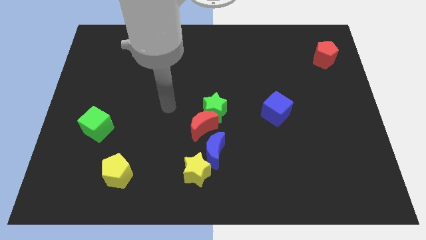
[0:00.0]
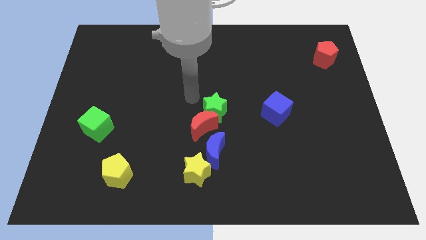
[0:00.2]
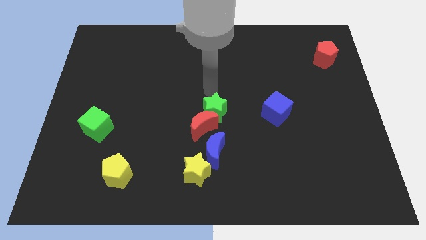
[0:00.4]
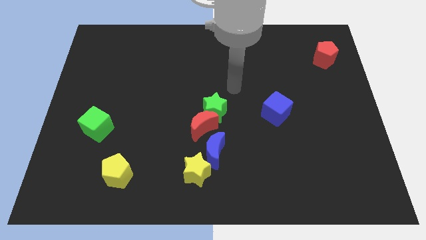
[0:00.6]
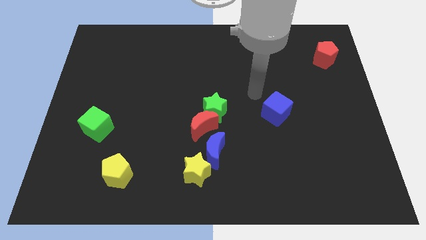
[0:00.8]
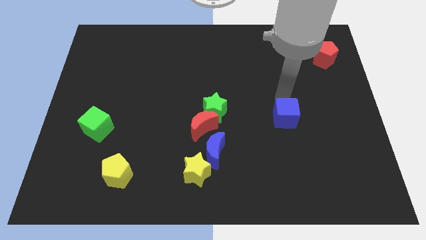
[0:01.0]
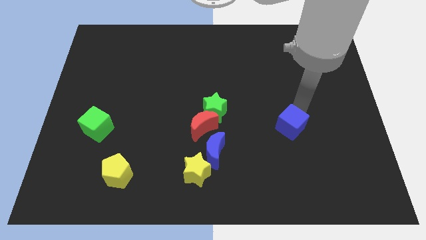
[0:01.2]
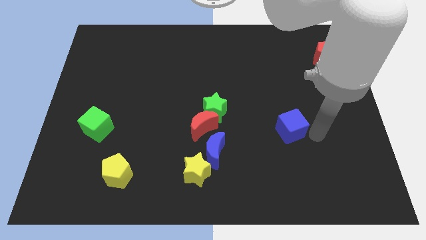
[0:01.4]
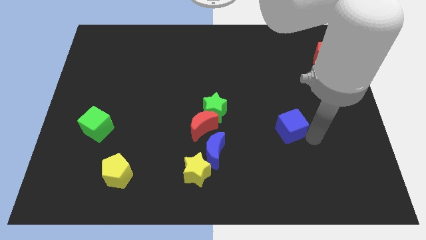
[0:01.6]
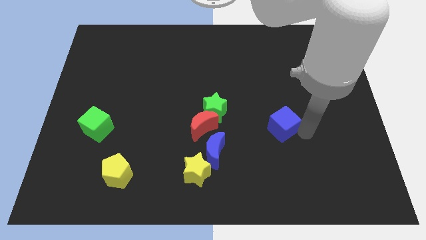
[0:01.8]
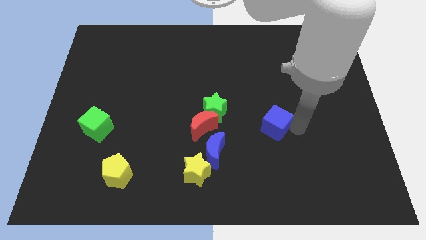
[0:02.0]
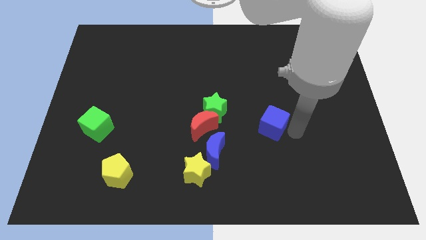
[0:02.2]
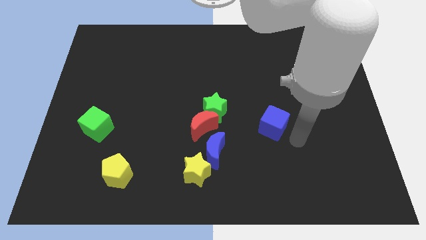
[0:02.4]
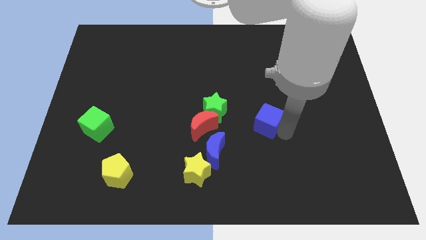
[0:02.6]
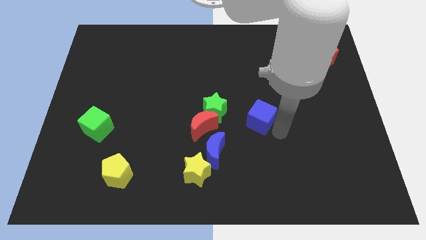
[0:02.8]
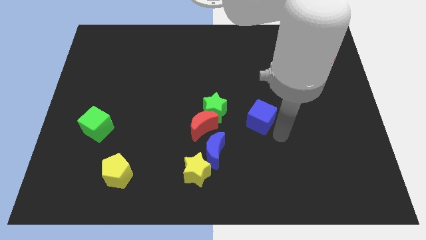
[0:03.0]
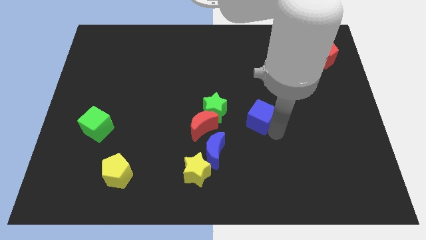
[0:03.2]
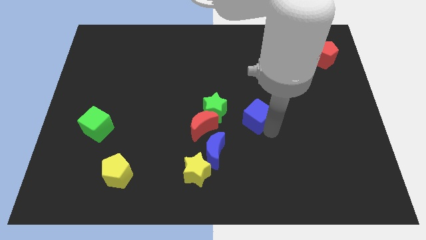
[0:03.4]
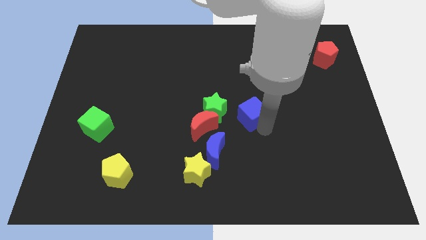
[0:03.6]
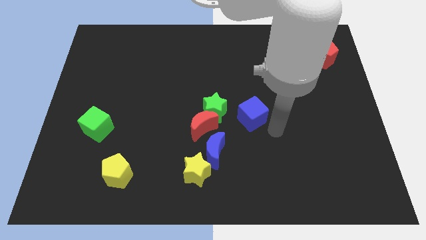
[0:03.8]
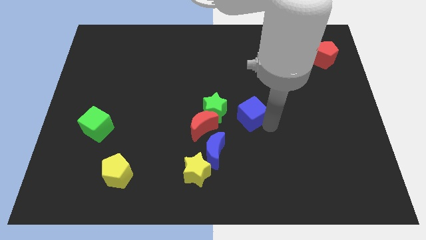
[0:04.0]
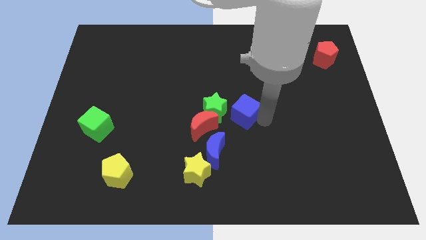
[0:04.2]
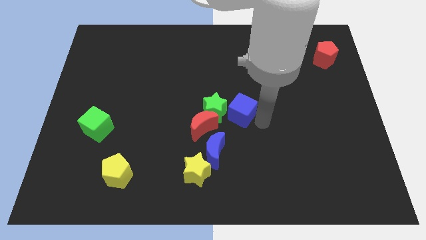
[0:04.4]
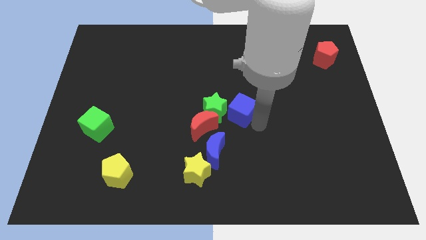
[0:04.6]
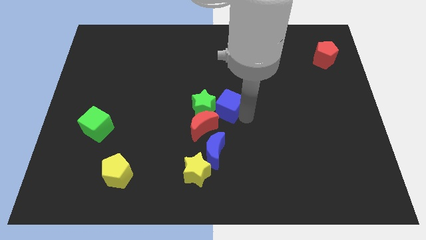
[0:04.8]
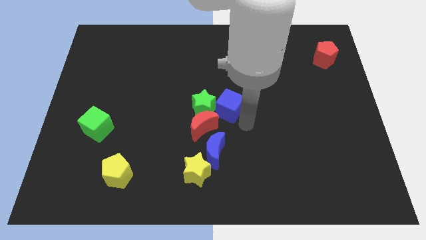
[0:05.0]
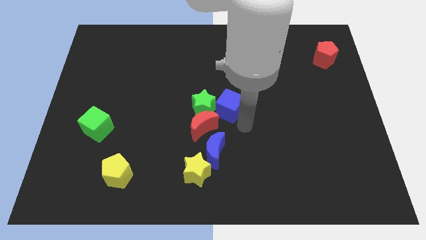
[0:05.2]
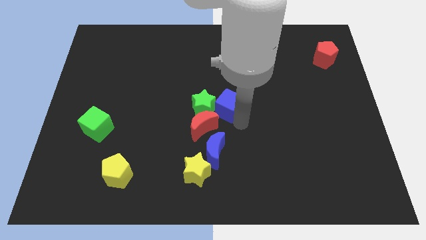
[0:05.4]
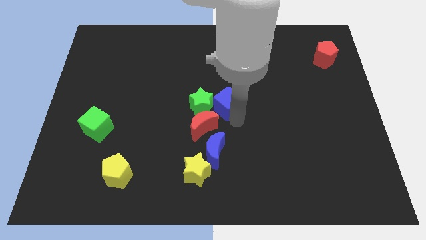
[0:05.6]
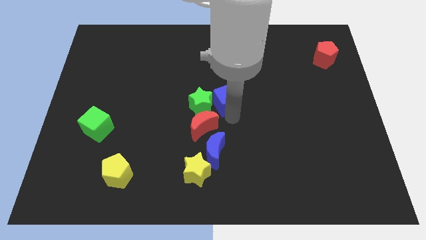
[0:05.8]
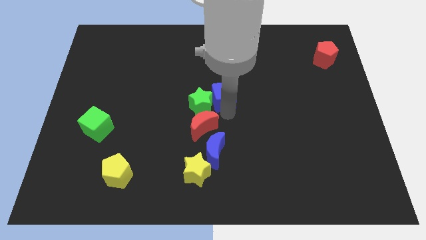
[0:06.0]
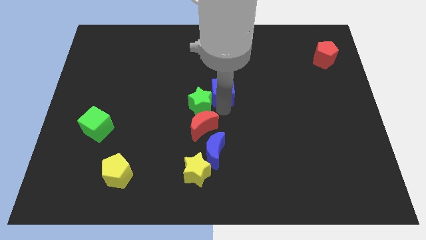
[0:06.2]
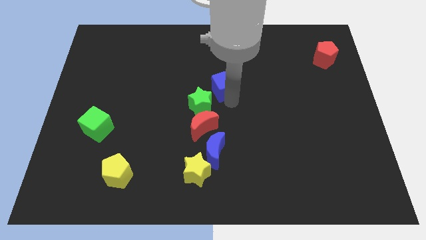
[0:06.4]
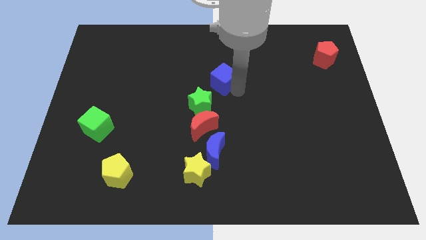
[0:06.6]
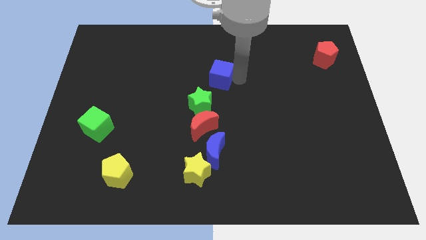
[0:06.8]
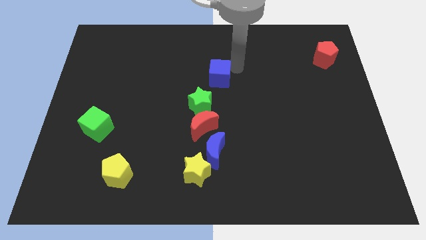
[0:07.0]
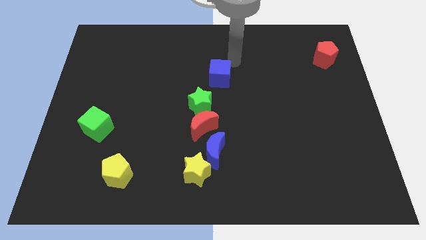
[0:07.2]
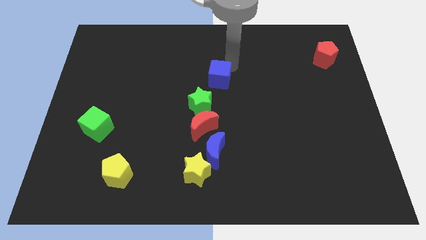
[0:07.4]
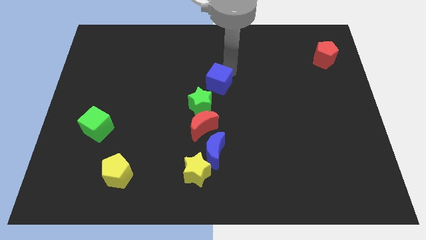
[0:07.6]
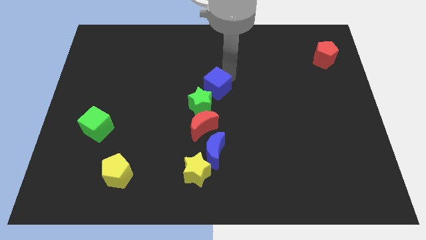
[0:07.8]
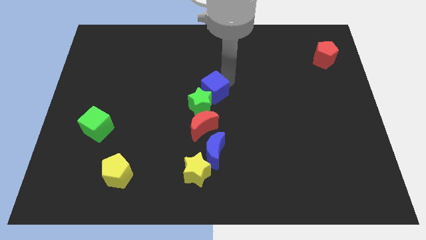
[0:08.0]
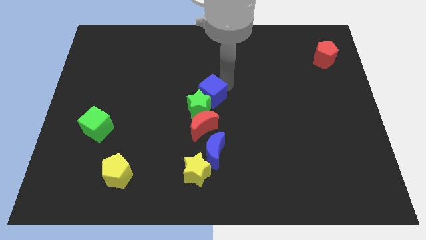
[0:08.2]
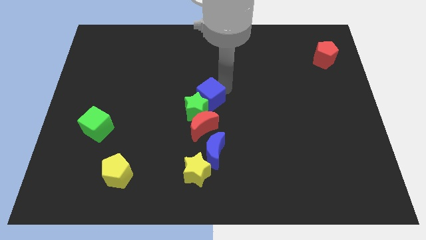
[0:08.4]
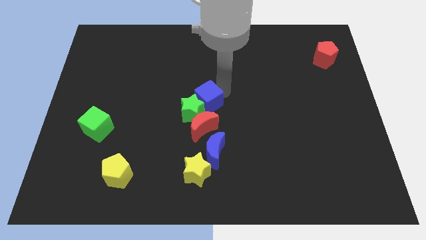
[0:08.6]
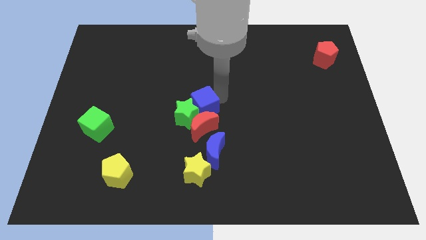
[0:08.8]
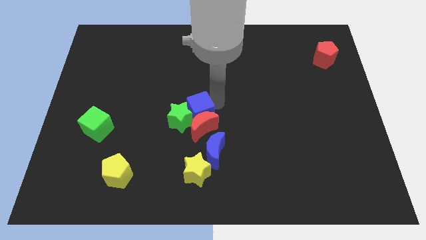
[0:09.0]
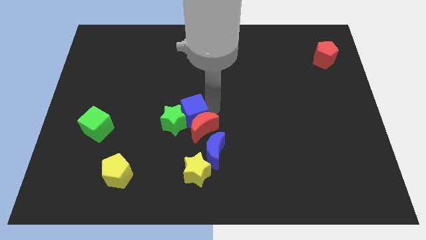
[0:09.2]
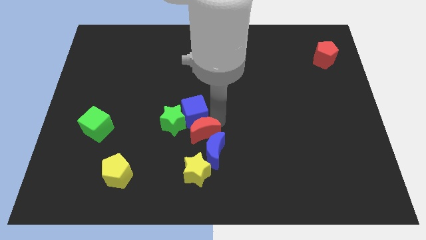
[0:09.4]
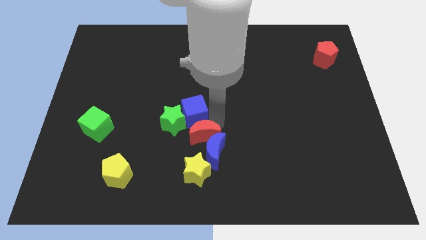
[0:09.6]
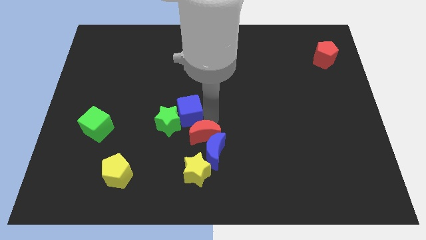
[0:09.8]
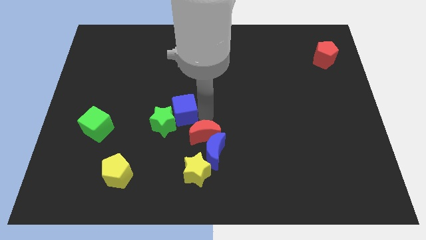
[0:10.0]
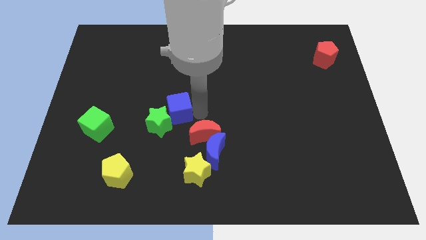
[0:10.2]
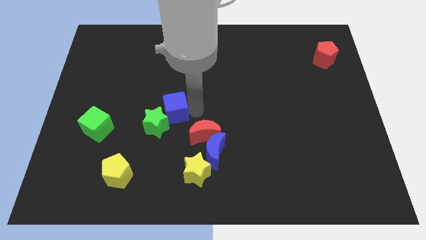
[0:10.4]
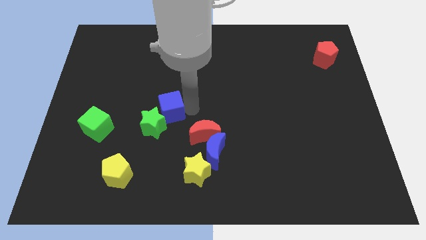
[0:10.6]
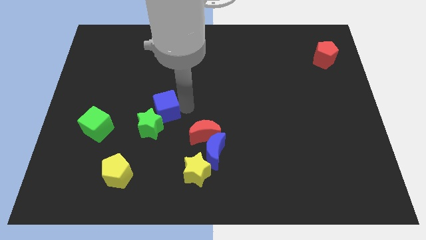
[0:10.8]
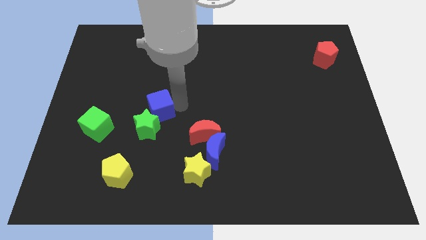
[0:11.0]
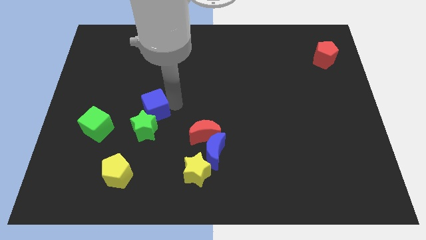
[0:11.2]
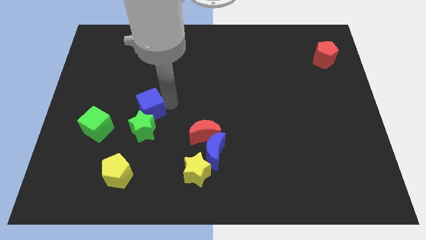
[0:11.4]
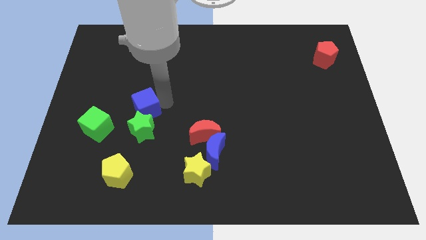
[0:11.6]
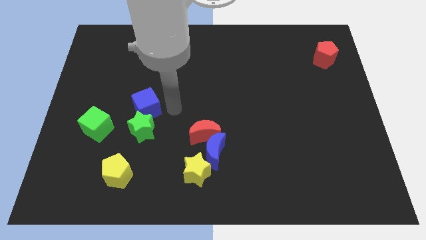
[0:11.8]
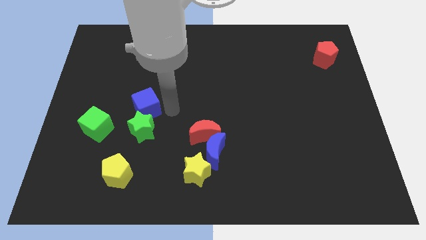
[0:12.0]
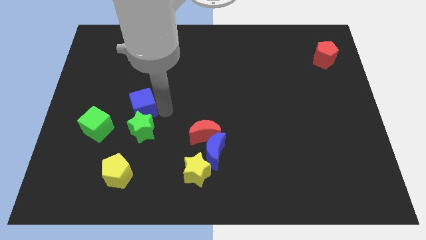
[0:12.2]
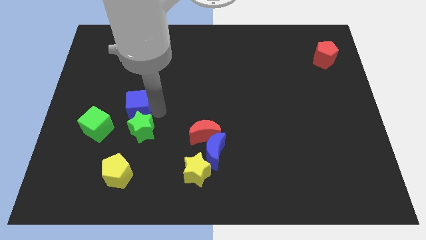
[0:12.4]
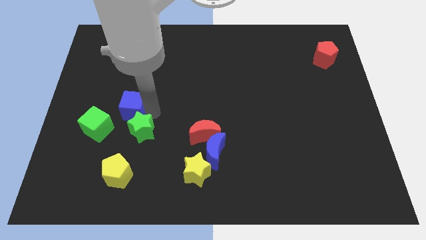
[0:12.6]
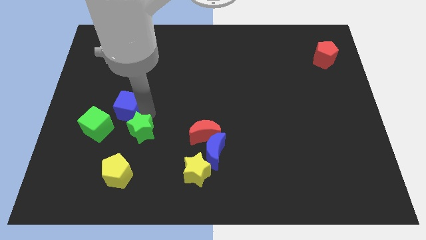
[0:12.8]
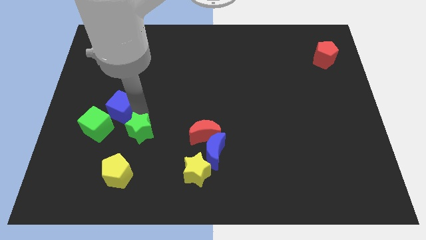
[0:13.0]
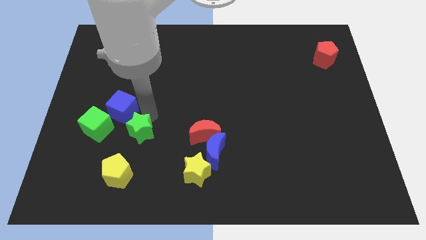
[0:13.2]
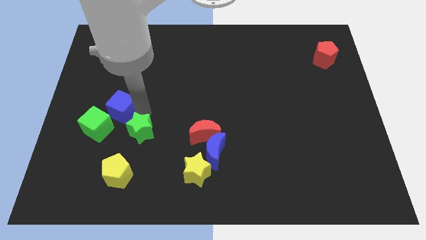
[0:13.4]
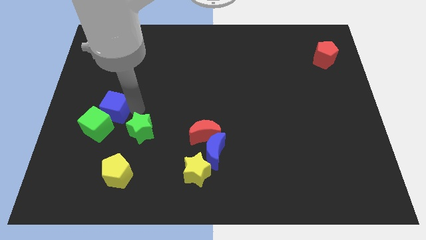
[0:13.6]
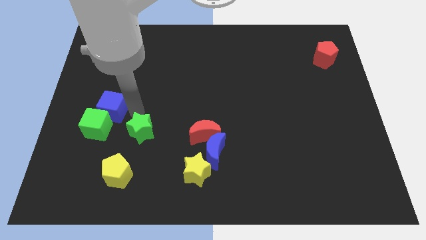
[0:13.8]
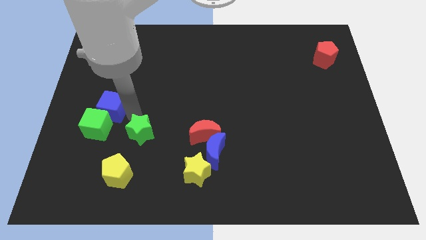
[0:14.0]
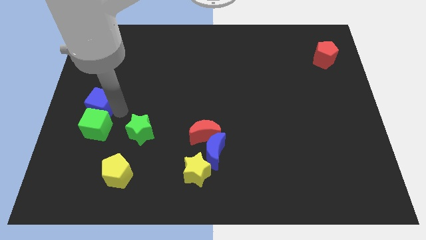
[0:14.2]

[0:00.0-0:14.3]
move the blue cube to the center left
